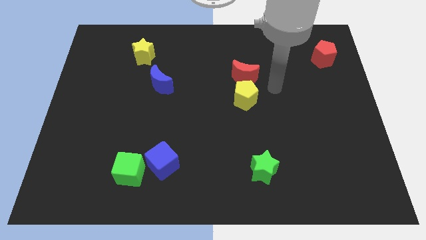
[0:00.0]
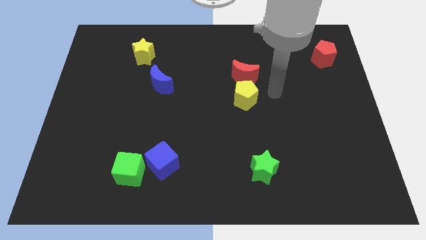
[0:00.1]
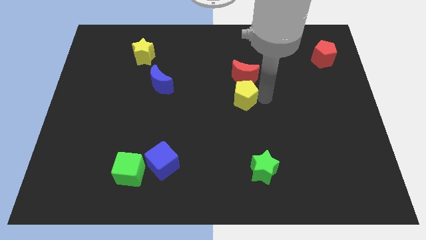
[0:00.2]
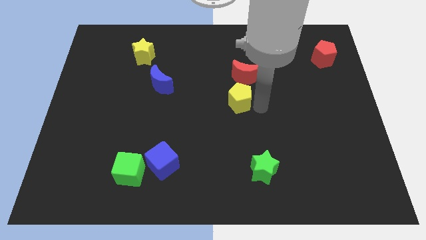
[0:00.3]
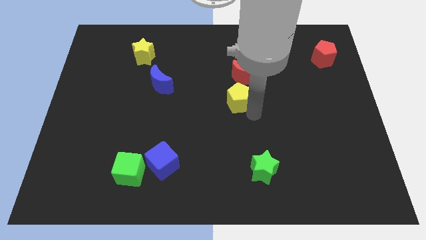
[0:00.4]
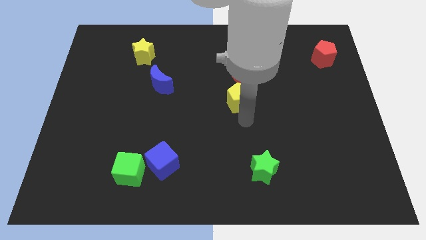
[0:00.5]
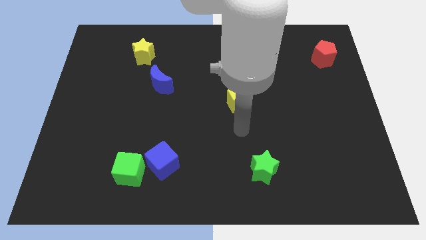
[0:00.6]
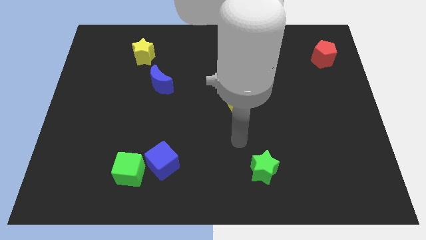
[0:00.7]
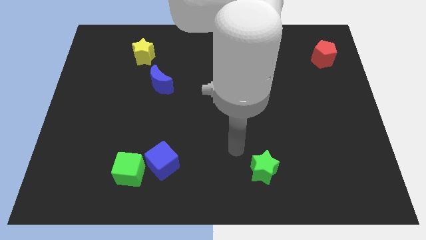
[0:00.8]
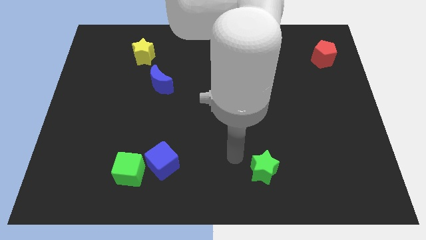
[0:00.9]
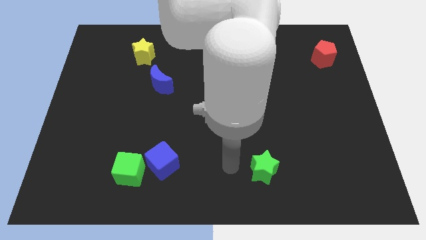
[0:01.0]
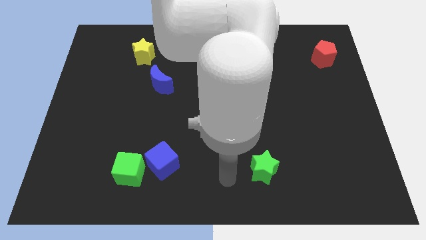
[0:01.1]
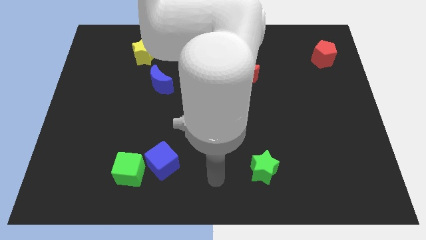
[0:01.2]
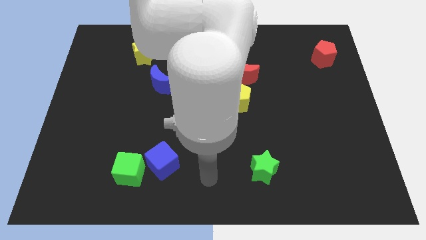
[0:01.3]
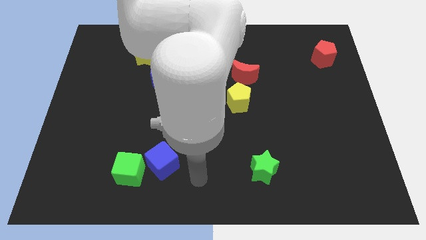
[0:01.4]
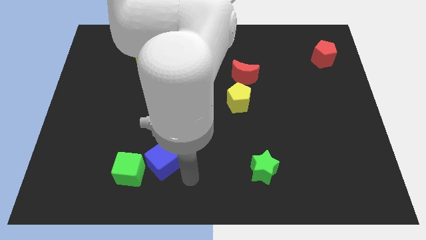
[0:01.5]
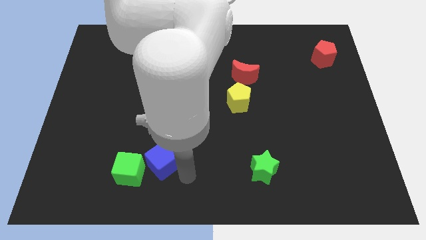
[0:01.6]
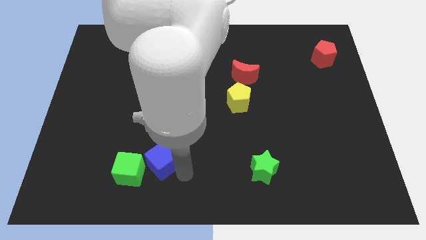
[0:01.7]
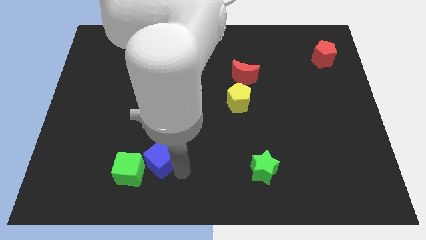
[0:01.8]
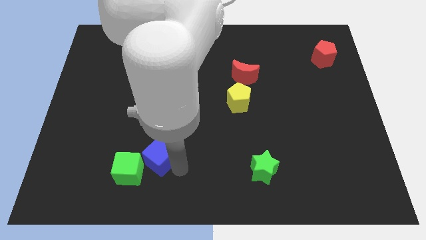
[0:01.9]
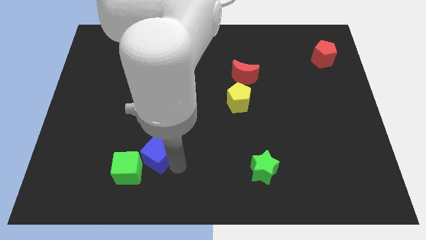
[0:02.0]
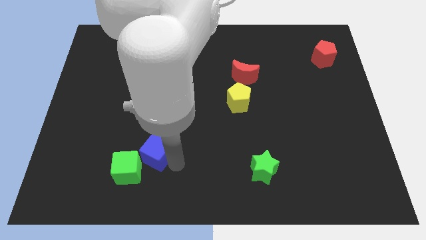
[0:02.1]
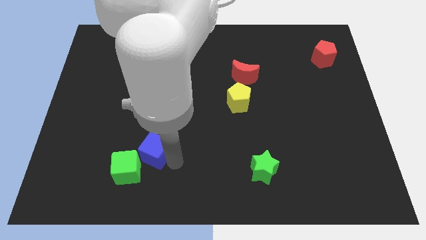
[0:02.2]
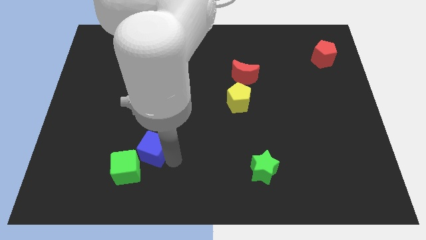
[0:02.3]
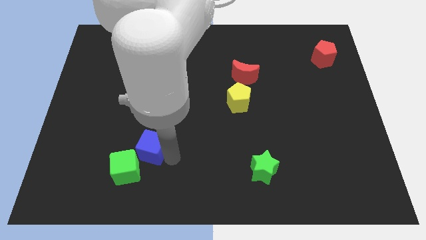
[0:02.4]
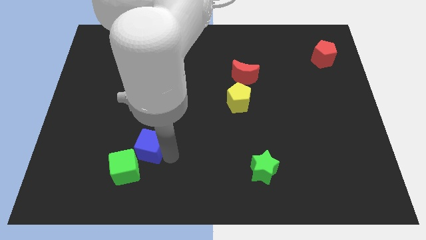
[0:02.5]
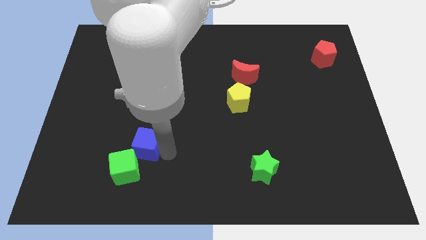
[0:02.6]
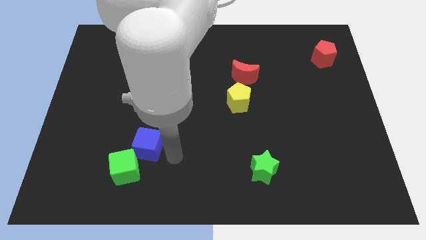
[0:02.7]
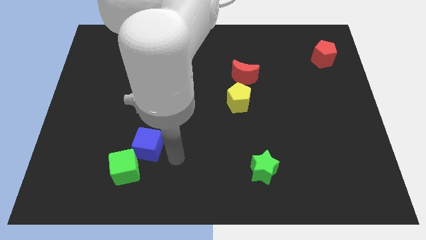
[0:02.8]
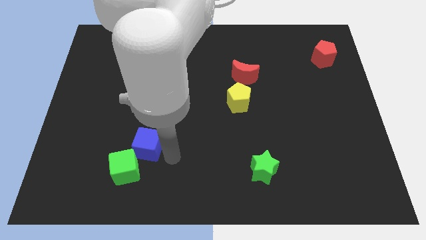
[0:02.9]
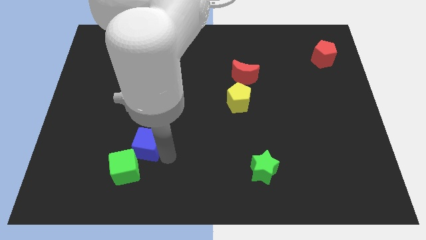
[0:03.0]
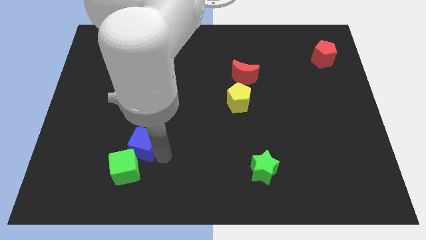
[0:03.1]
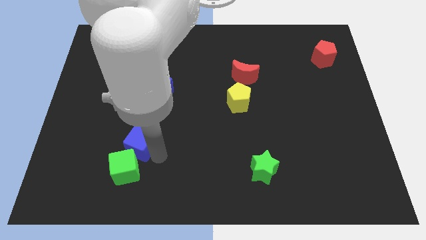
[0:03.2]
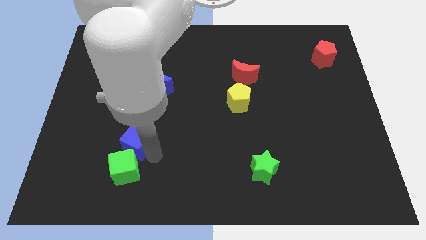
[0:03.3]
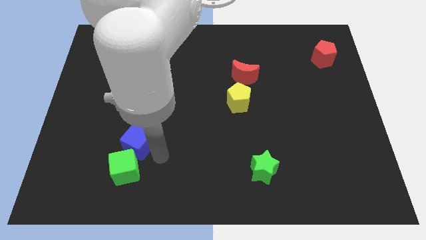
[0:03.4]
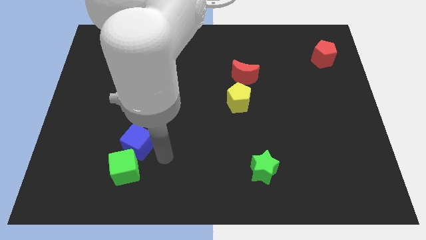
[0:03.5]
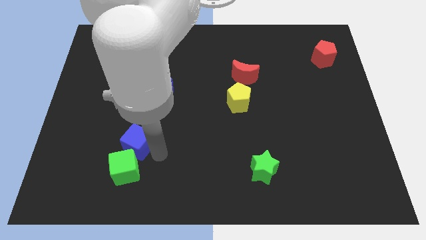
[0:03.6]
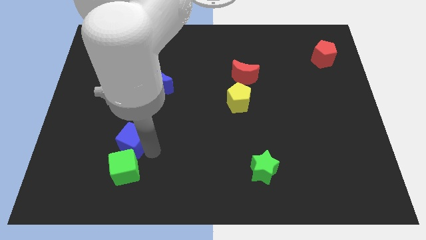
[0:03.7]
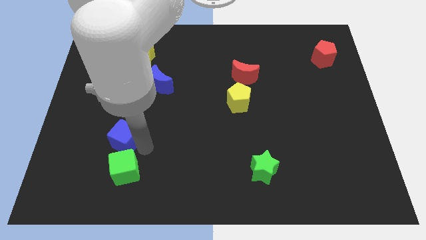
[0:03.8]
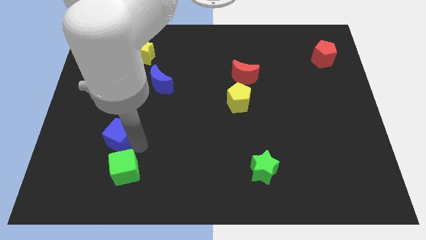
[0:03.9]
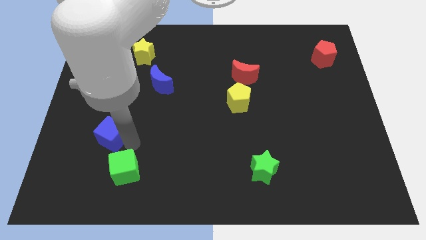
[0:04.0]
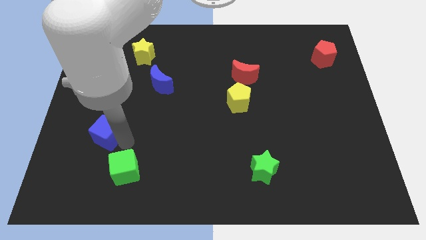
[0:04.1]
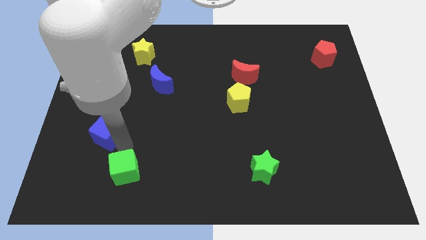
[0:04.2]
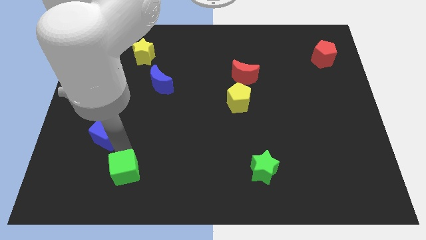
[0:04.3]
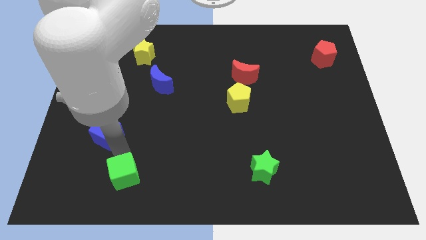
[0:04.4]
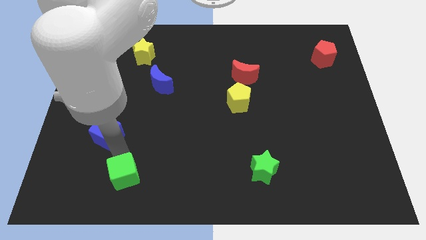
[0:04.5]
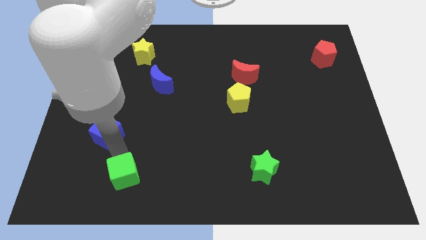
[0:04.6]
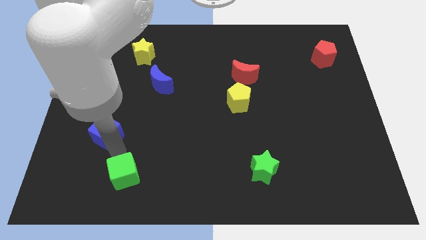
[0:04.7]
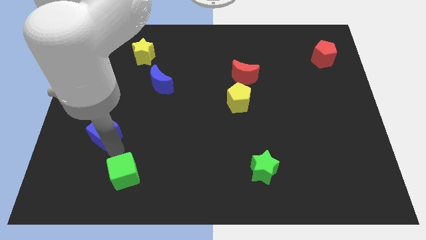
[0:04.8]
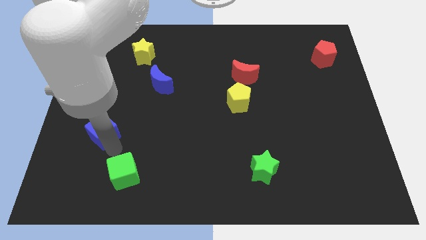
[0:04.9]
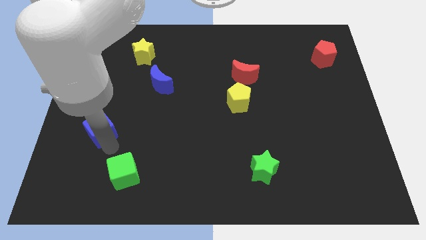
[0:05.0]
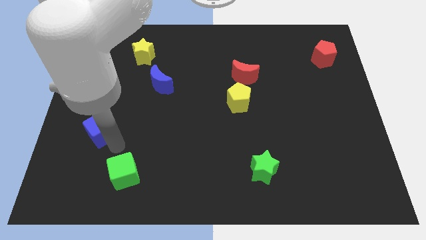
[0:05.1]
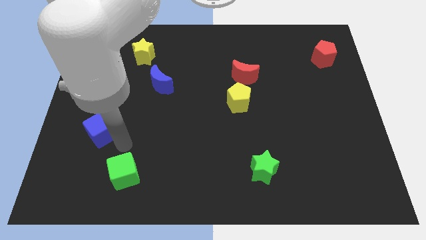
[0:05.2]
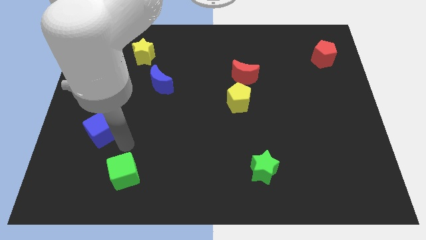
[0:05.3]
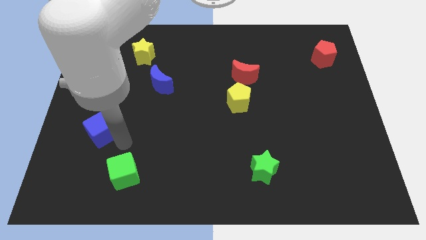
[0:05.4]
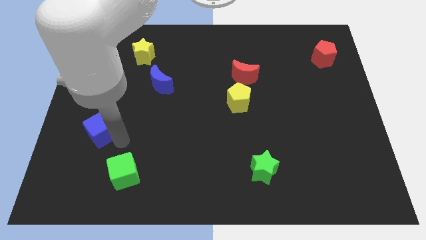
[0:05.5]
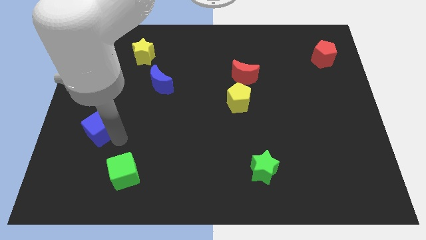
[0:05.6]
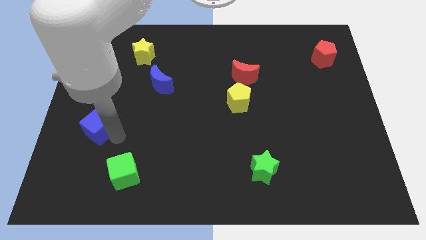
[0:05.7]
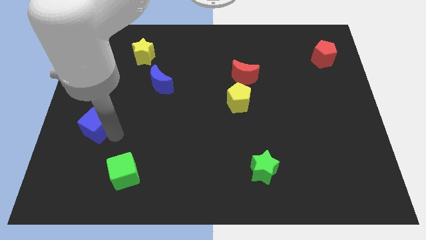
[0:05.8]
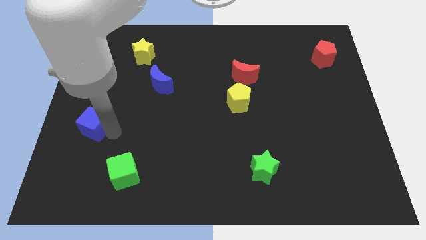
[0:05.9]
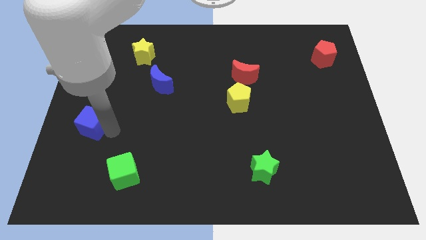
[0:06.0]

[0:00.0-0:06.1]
slide the blue cube to the left side of the board

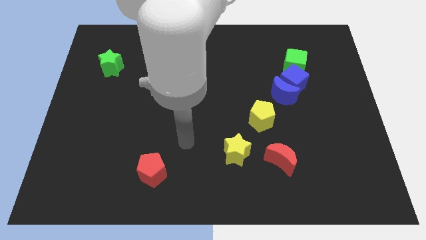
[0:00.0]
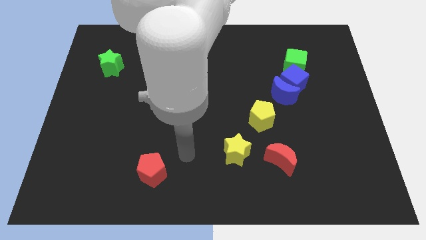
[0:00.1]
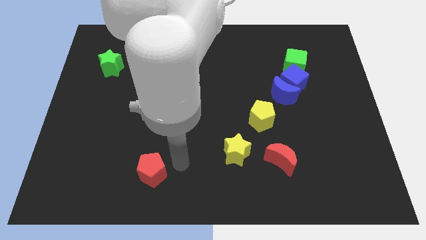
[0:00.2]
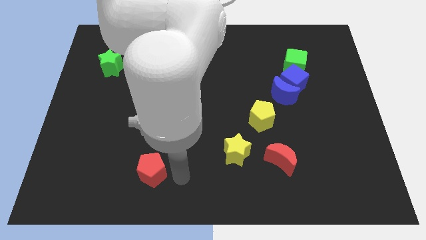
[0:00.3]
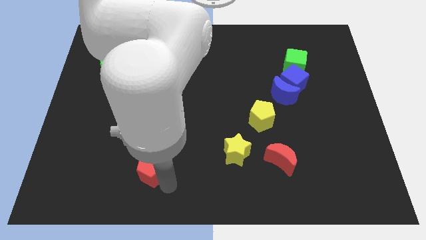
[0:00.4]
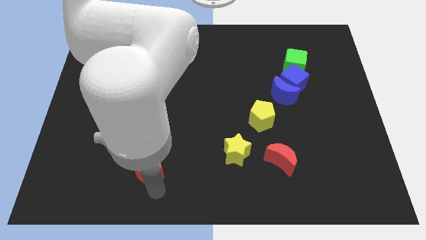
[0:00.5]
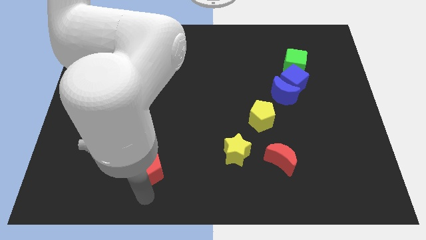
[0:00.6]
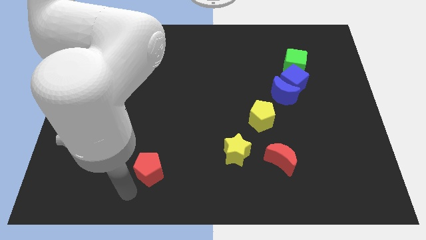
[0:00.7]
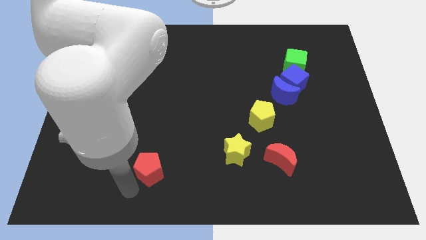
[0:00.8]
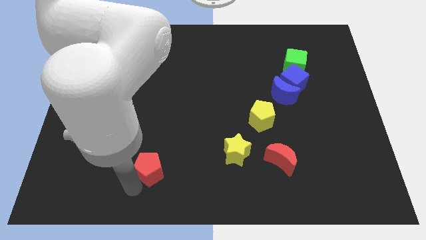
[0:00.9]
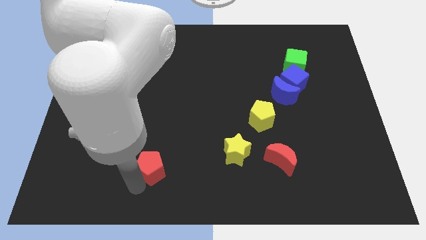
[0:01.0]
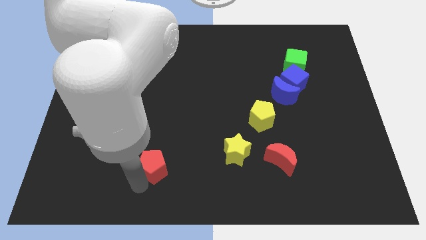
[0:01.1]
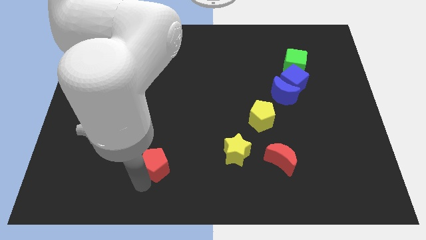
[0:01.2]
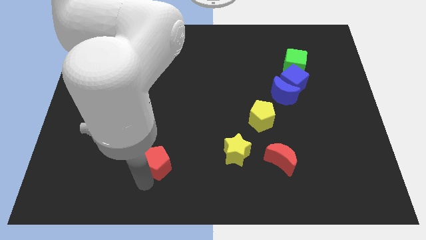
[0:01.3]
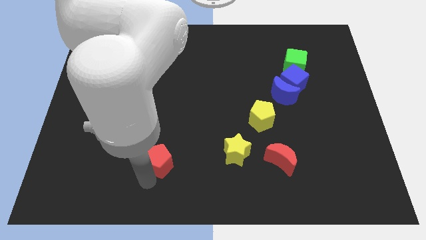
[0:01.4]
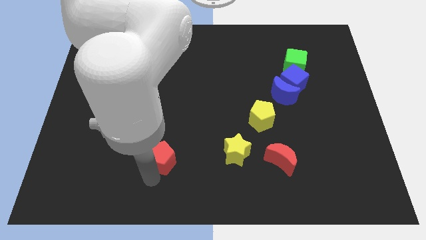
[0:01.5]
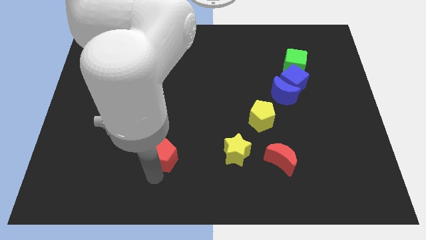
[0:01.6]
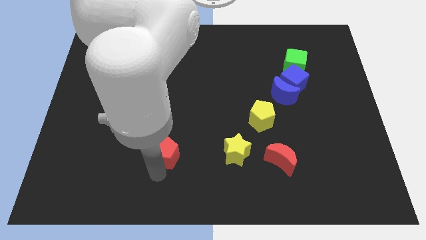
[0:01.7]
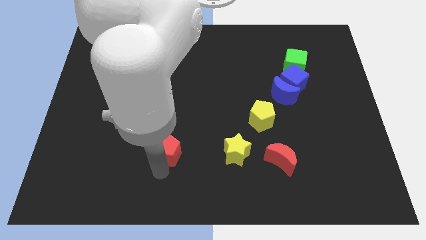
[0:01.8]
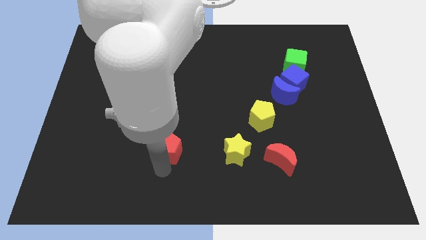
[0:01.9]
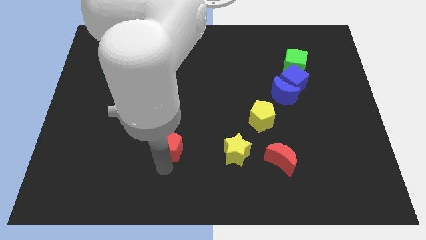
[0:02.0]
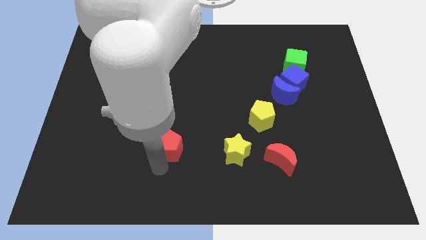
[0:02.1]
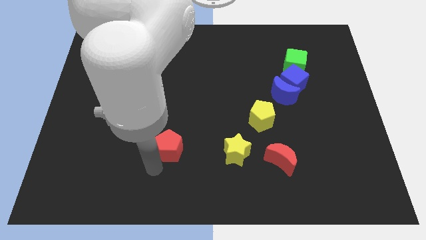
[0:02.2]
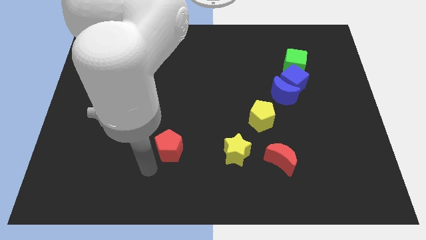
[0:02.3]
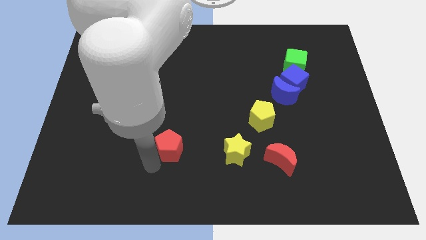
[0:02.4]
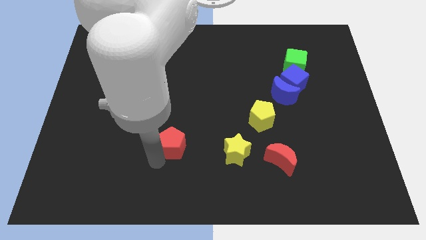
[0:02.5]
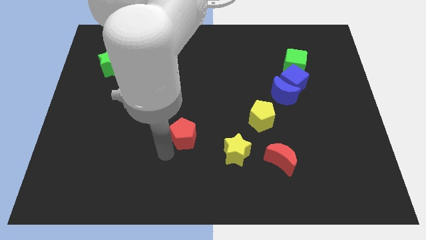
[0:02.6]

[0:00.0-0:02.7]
slide the red pentagon to the center
